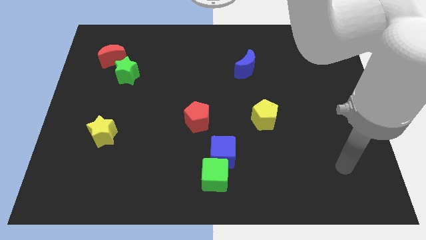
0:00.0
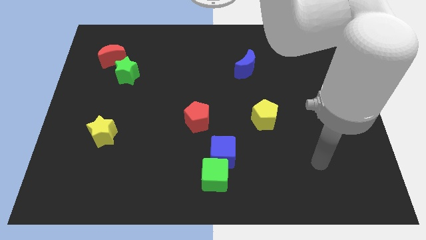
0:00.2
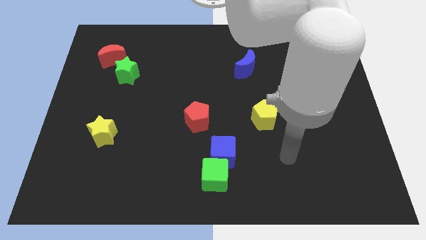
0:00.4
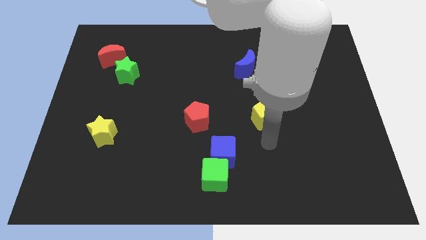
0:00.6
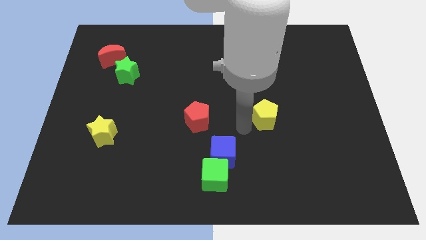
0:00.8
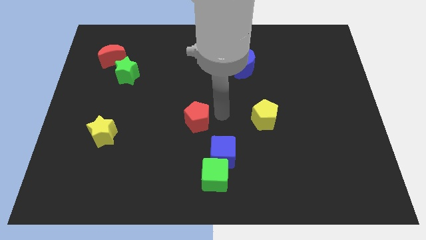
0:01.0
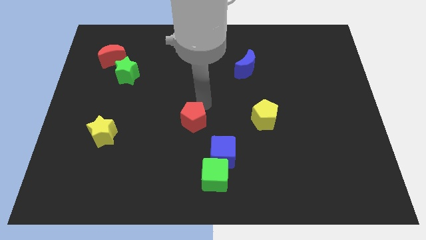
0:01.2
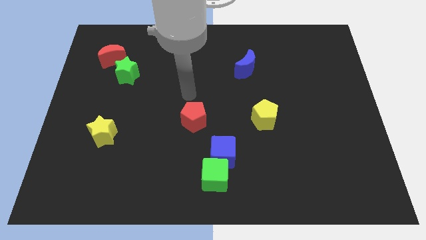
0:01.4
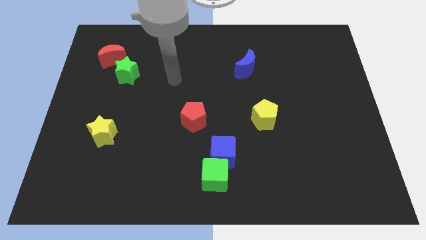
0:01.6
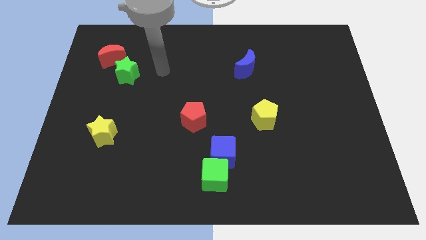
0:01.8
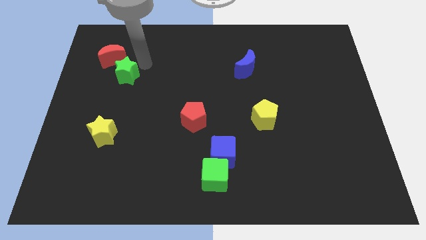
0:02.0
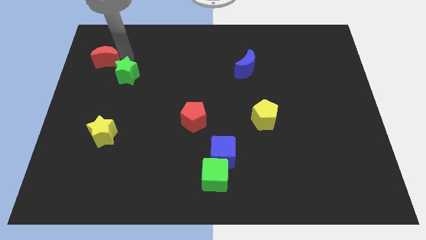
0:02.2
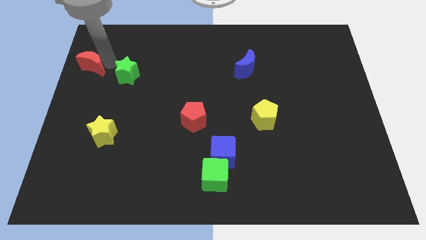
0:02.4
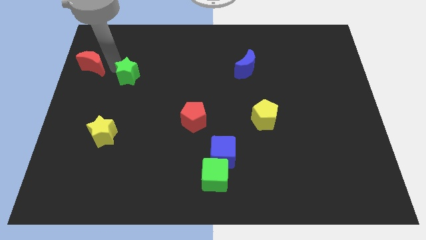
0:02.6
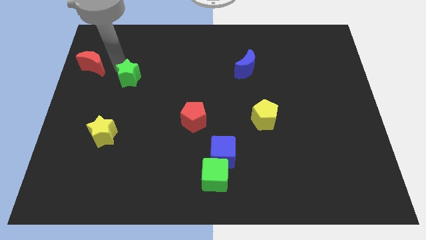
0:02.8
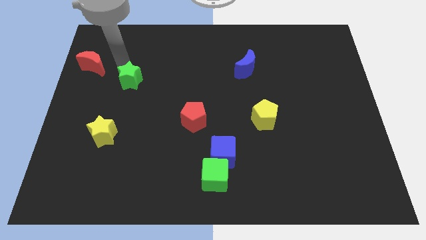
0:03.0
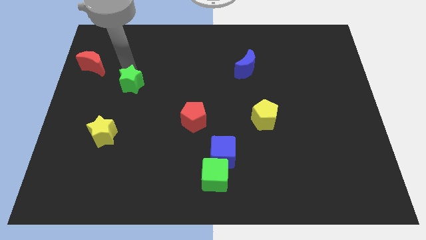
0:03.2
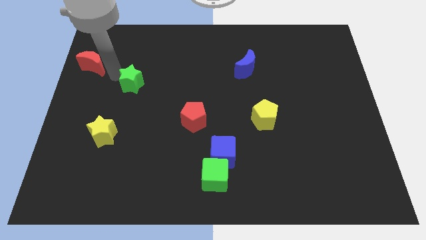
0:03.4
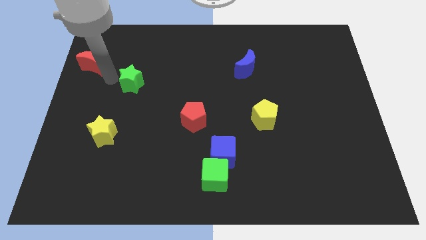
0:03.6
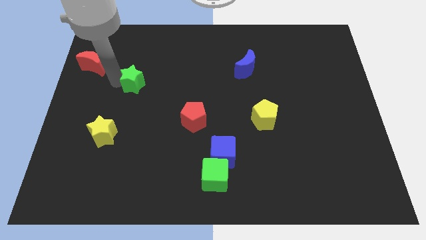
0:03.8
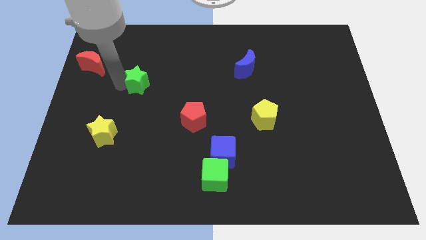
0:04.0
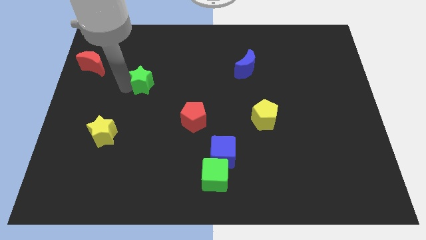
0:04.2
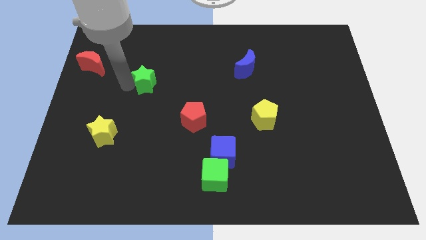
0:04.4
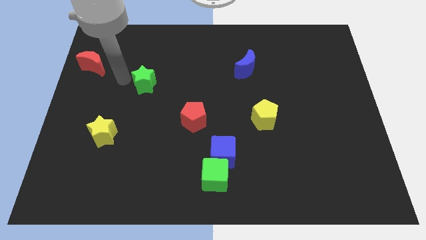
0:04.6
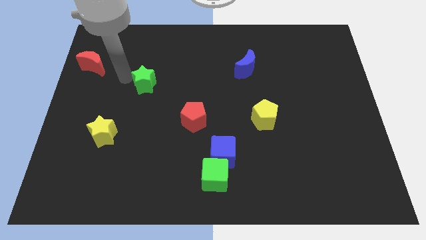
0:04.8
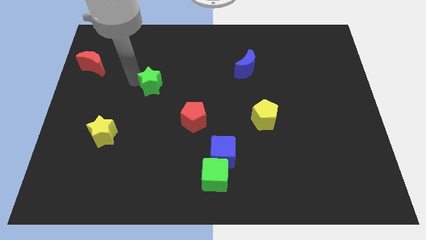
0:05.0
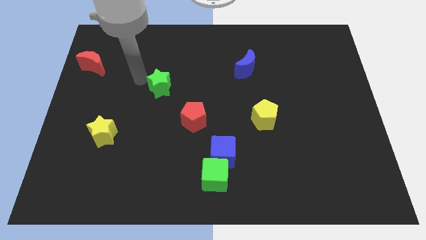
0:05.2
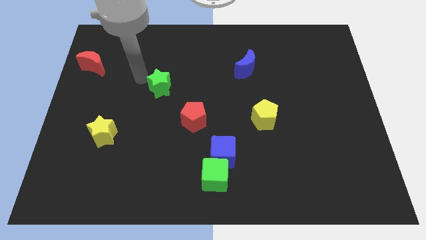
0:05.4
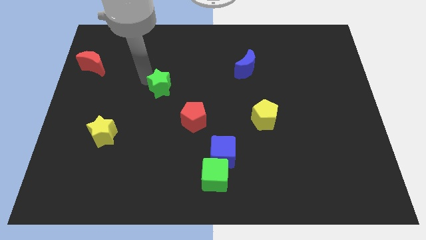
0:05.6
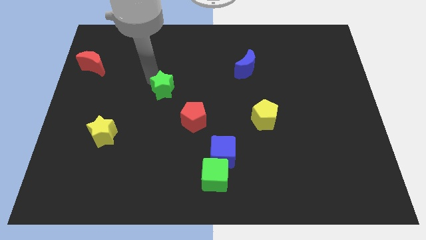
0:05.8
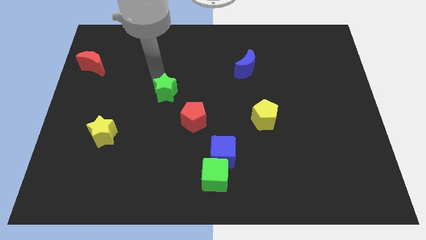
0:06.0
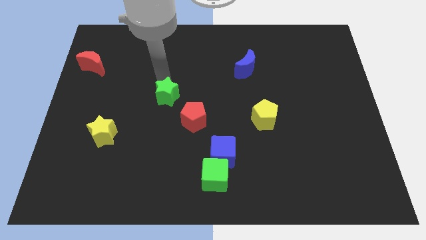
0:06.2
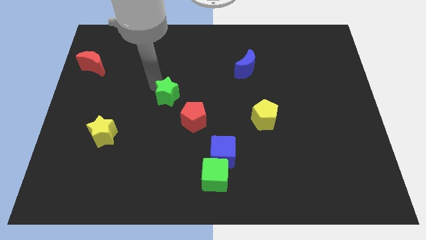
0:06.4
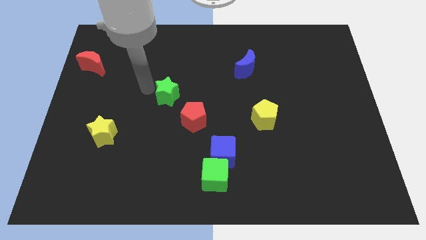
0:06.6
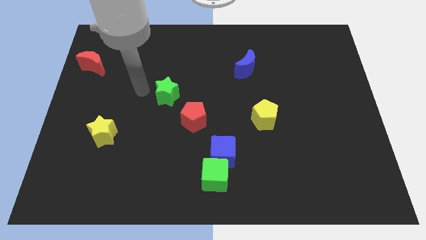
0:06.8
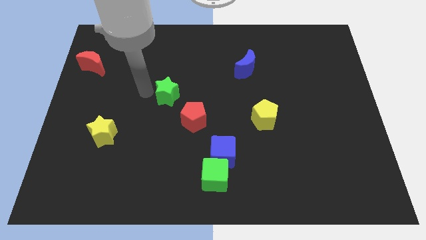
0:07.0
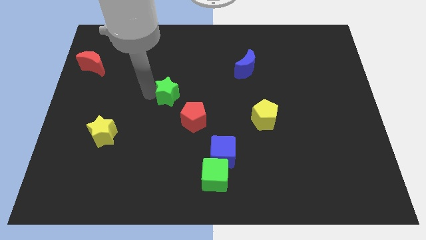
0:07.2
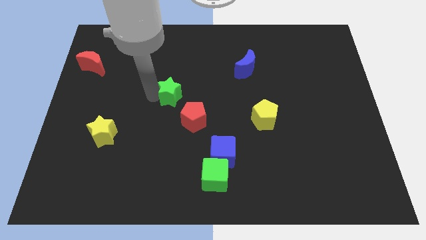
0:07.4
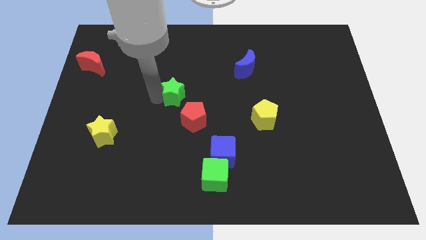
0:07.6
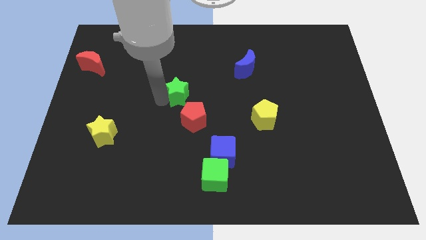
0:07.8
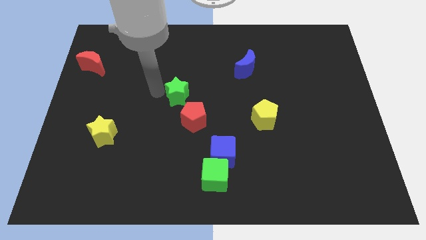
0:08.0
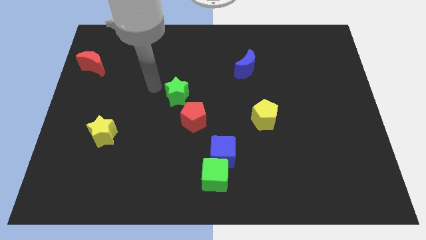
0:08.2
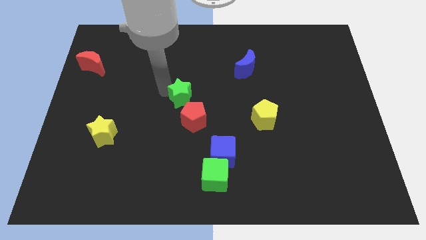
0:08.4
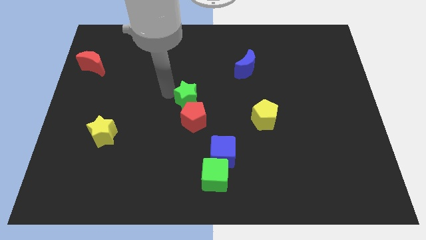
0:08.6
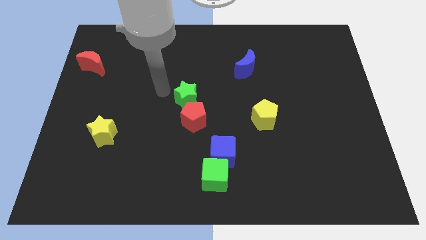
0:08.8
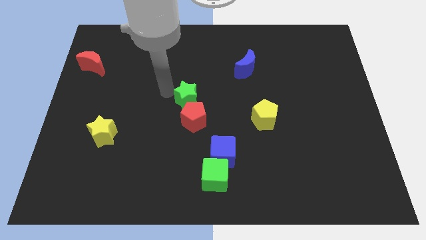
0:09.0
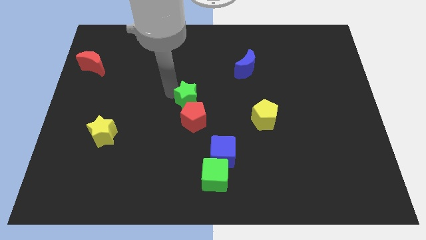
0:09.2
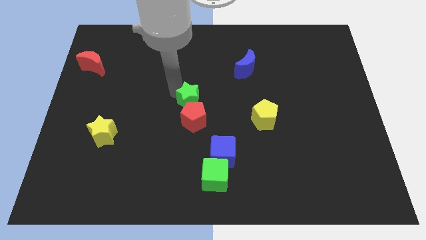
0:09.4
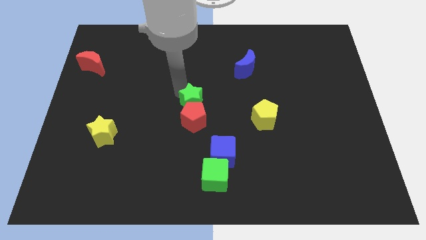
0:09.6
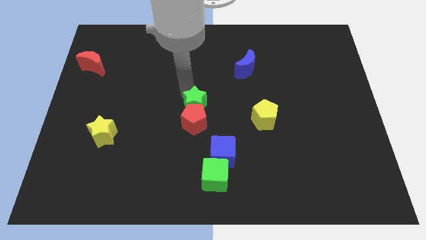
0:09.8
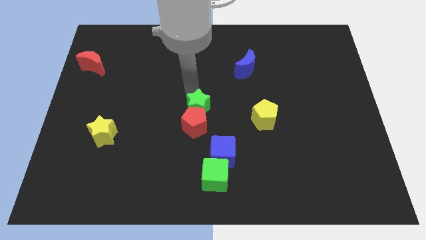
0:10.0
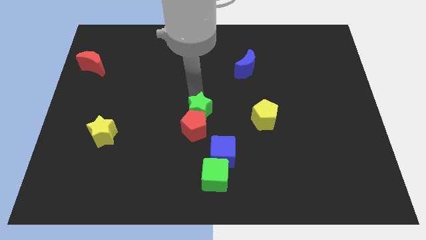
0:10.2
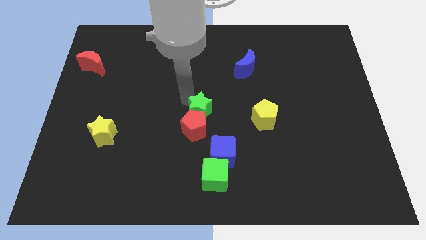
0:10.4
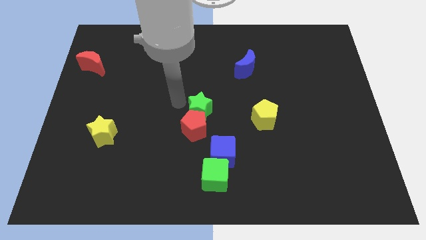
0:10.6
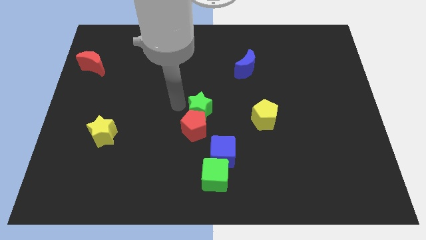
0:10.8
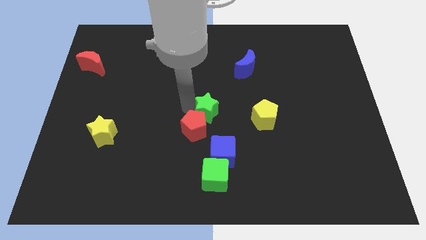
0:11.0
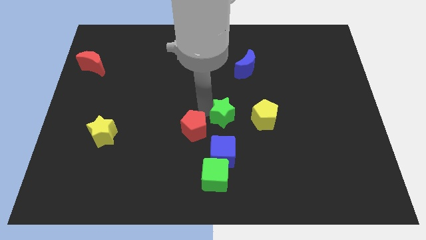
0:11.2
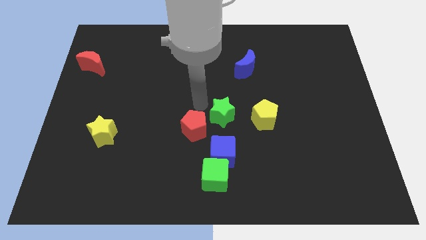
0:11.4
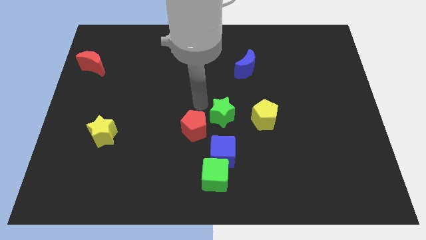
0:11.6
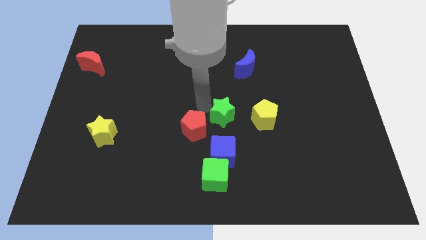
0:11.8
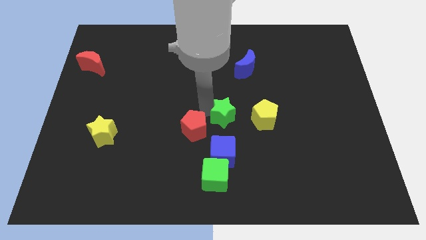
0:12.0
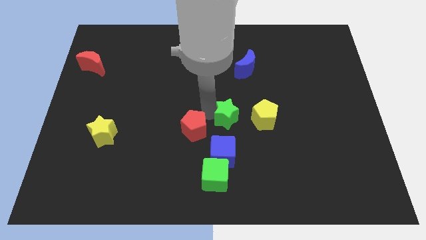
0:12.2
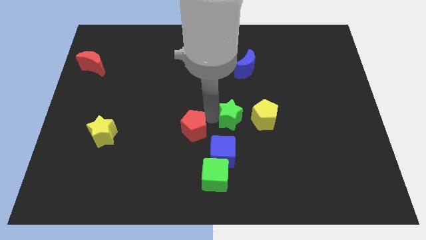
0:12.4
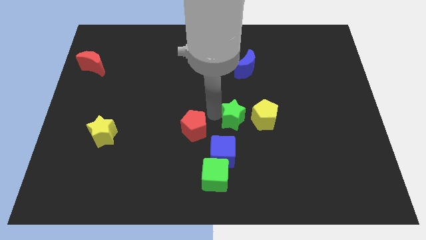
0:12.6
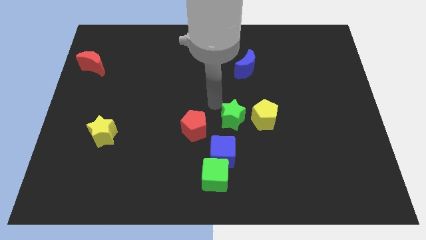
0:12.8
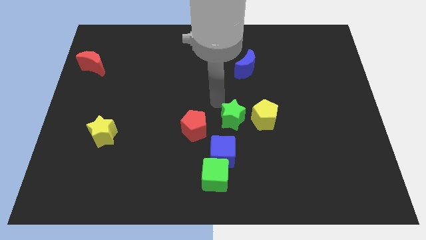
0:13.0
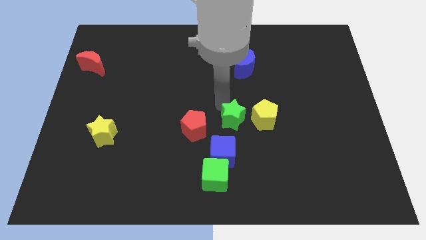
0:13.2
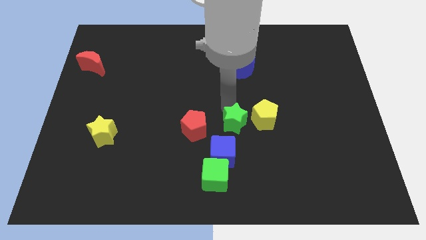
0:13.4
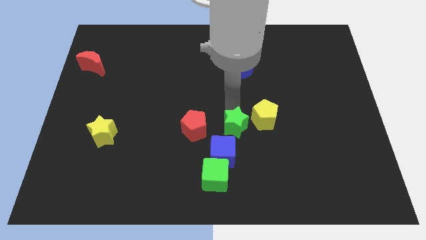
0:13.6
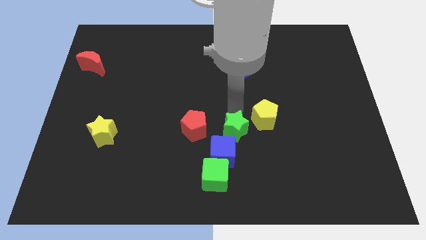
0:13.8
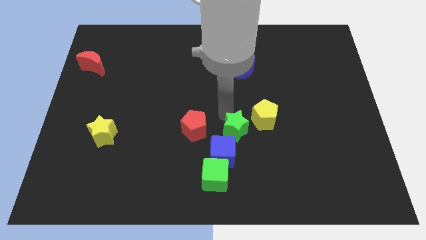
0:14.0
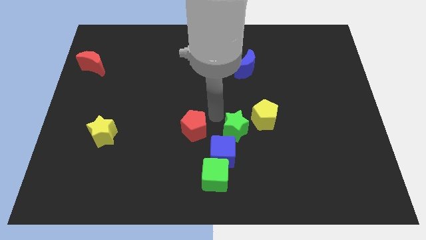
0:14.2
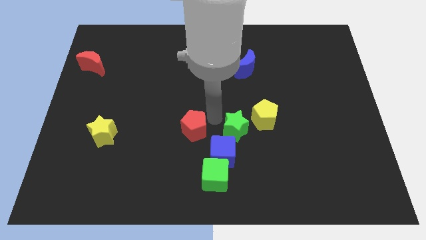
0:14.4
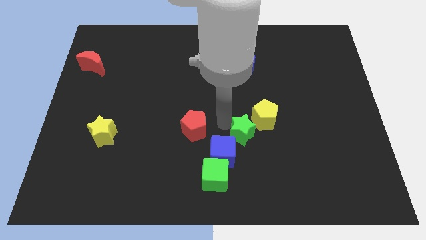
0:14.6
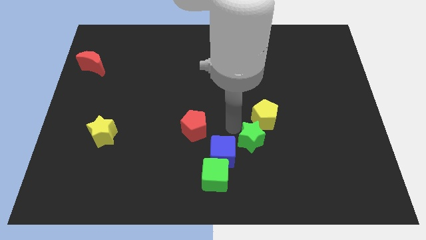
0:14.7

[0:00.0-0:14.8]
push the green star below the yellow pentagon

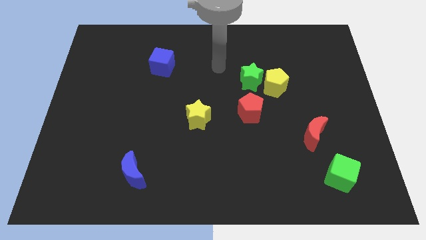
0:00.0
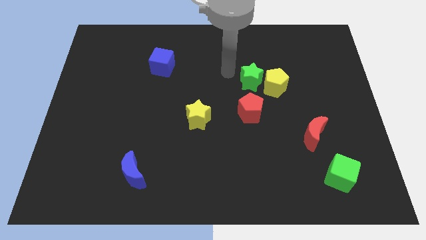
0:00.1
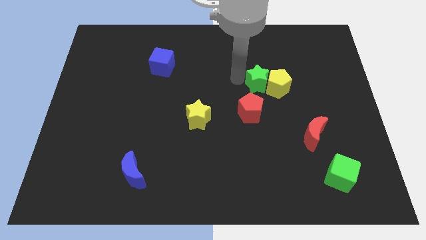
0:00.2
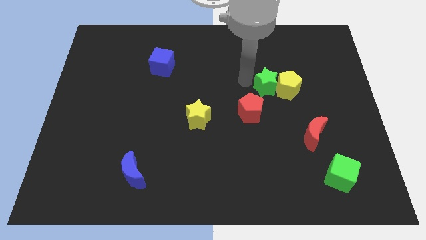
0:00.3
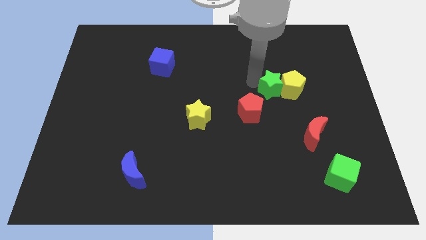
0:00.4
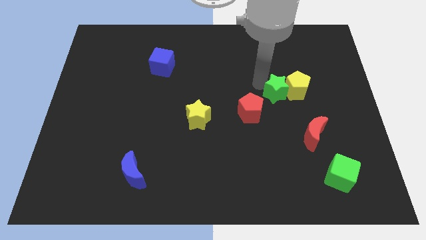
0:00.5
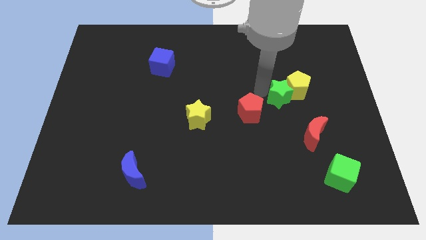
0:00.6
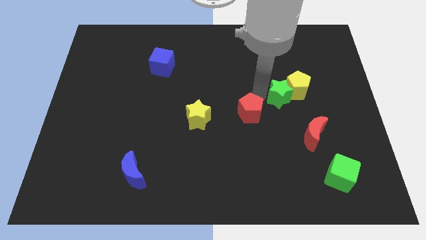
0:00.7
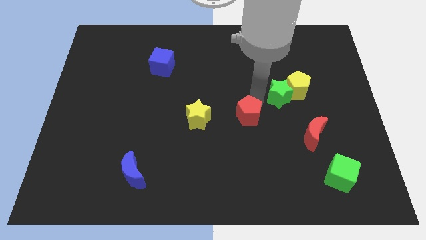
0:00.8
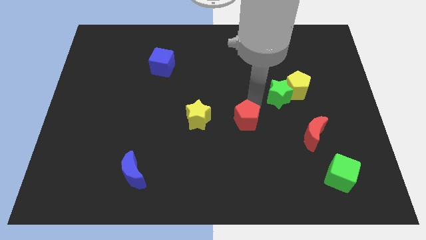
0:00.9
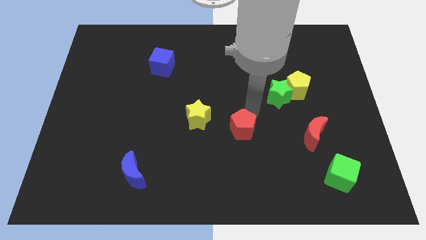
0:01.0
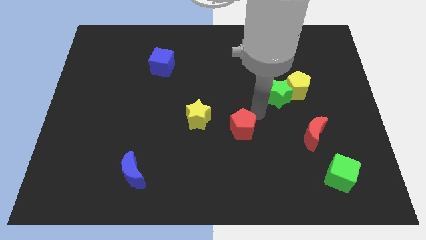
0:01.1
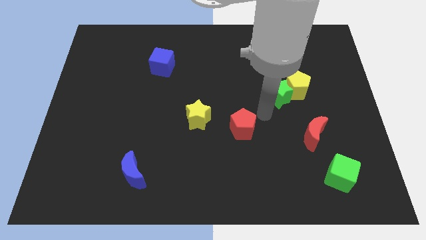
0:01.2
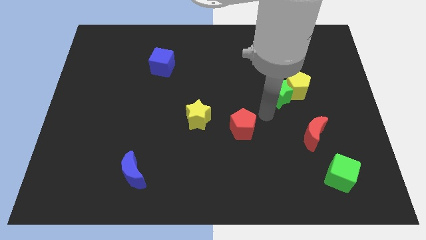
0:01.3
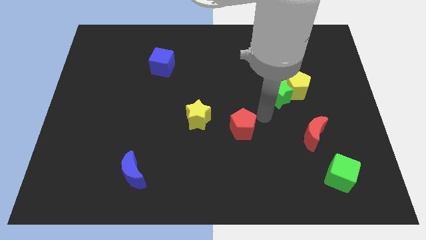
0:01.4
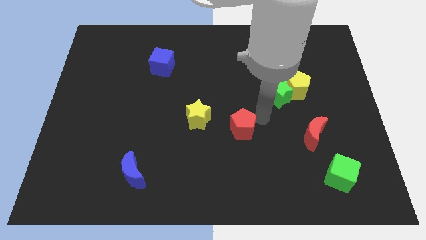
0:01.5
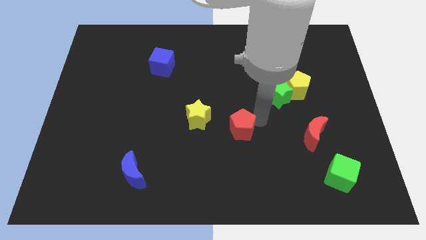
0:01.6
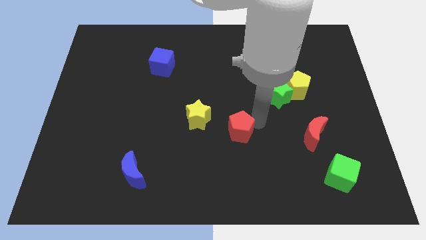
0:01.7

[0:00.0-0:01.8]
move the red pentagon to the bottom right of the yellow star
